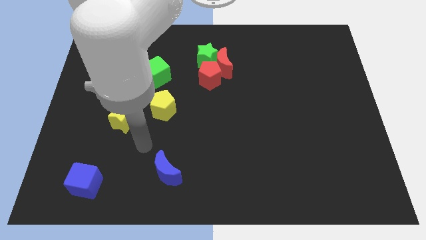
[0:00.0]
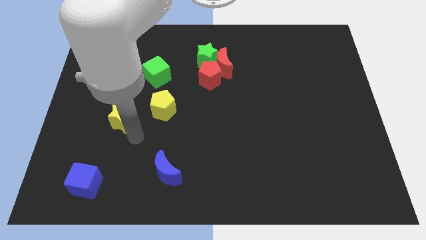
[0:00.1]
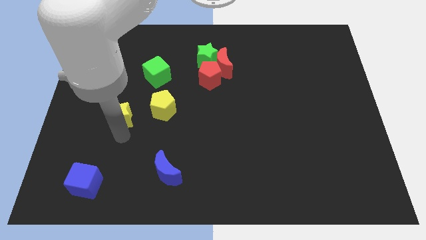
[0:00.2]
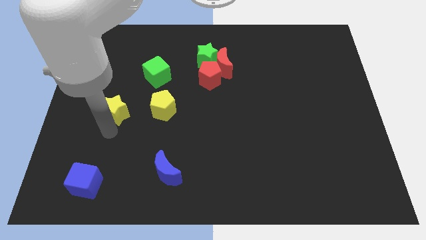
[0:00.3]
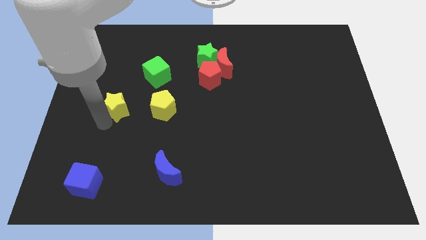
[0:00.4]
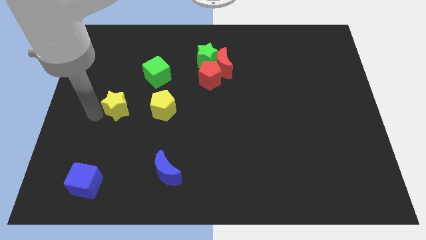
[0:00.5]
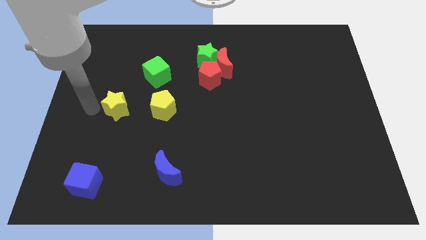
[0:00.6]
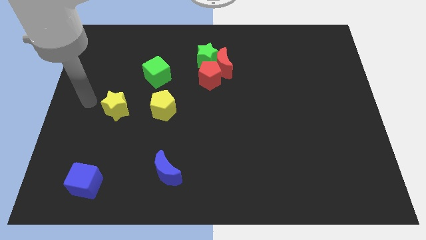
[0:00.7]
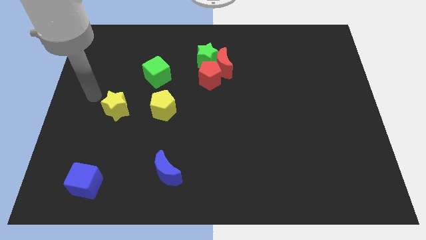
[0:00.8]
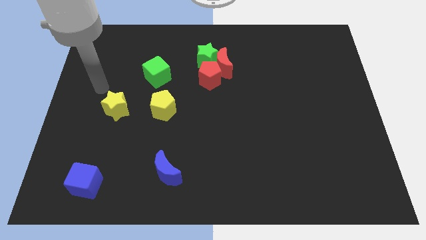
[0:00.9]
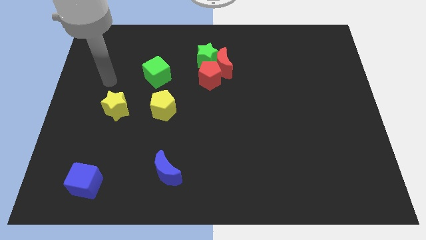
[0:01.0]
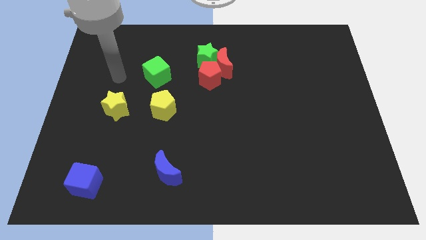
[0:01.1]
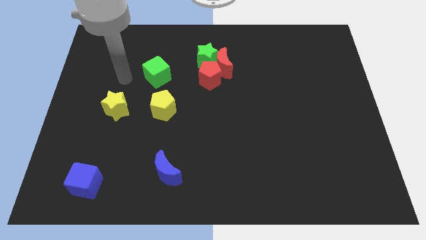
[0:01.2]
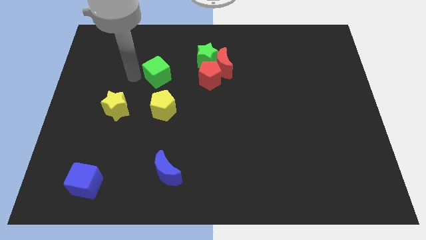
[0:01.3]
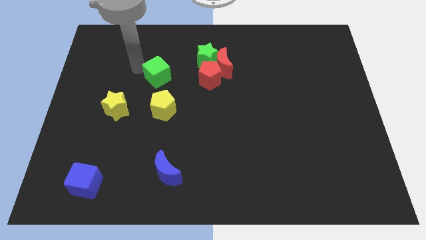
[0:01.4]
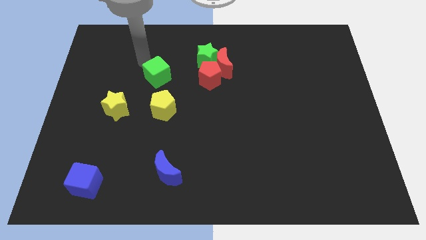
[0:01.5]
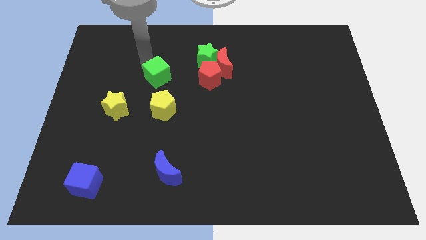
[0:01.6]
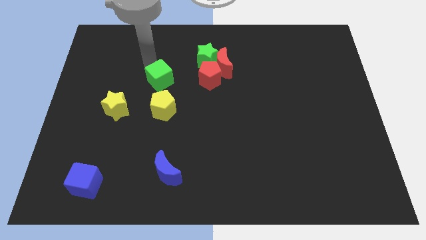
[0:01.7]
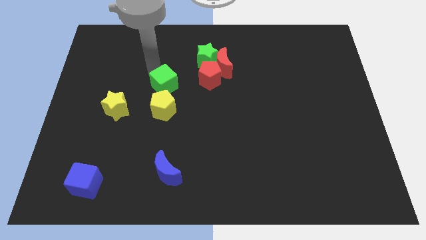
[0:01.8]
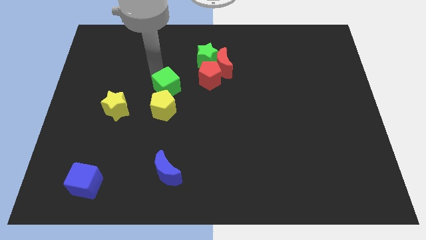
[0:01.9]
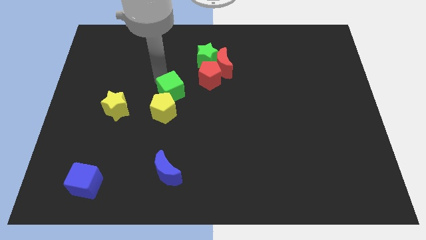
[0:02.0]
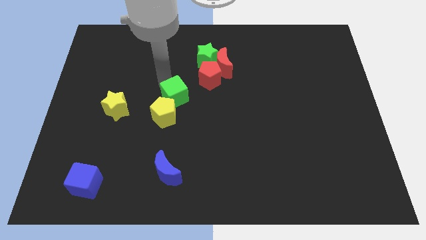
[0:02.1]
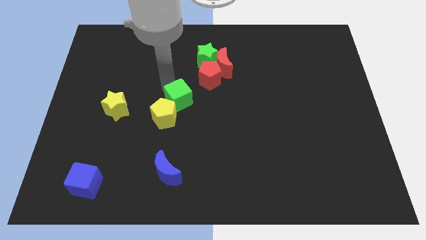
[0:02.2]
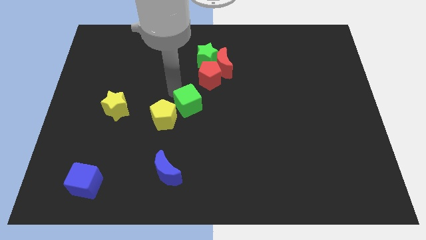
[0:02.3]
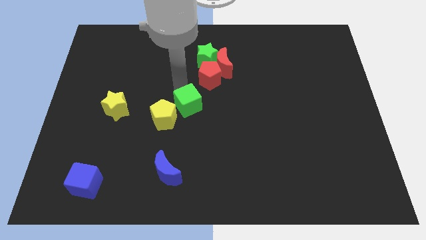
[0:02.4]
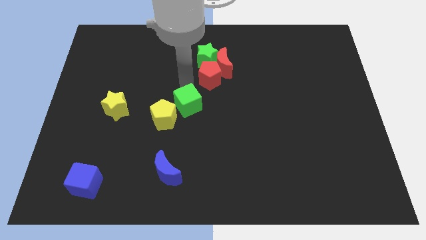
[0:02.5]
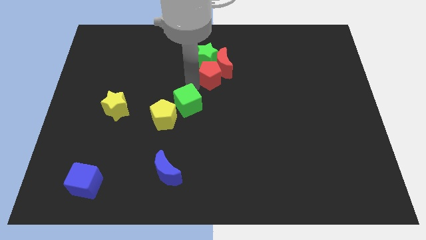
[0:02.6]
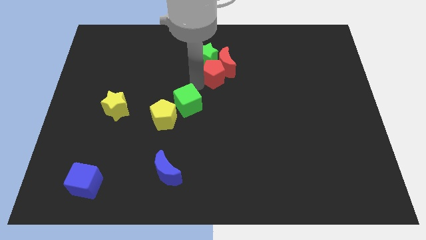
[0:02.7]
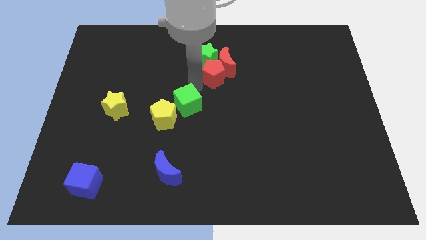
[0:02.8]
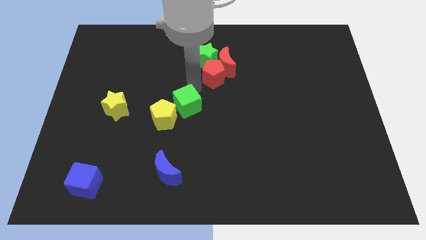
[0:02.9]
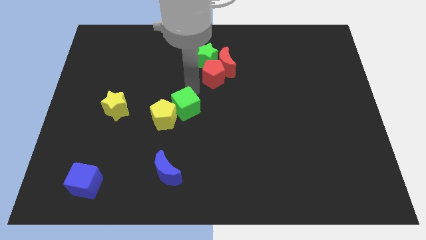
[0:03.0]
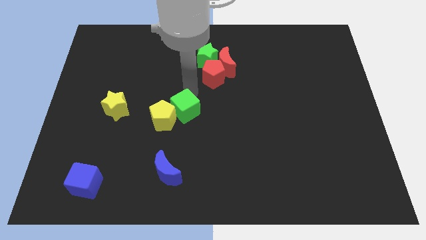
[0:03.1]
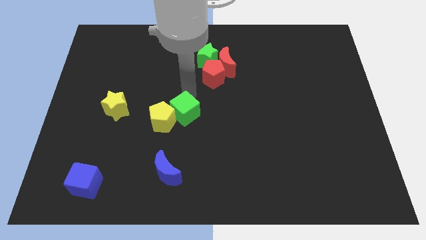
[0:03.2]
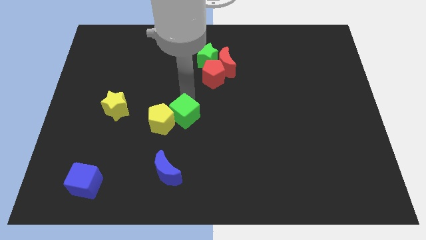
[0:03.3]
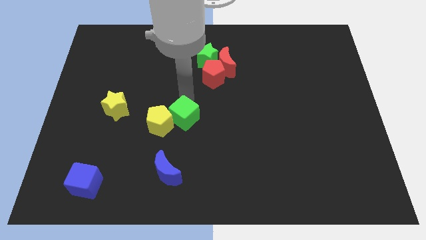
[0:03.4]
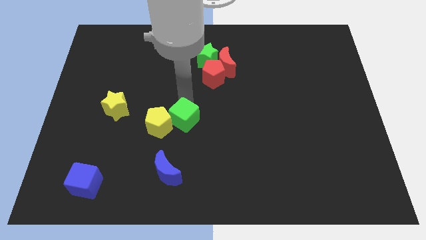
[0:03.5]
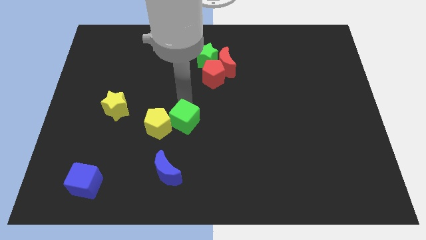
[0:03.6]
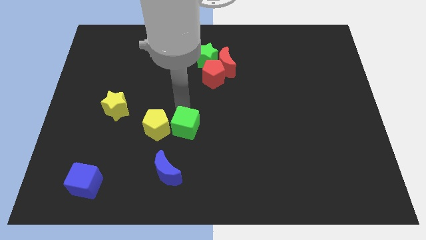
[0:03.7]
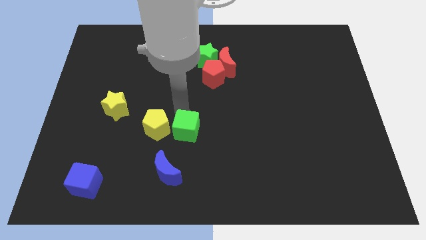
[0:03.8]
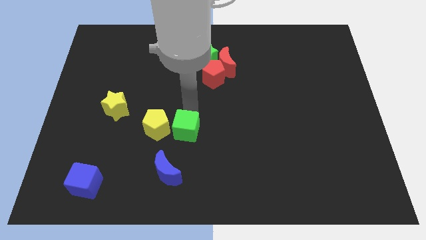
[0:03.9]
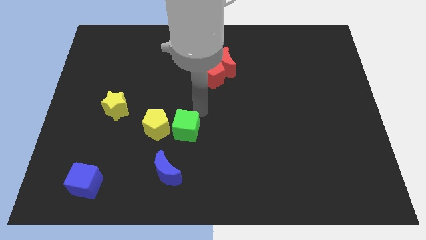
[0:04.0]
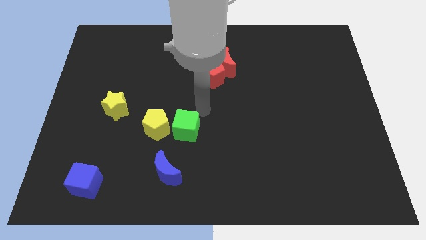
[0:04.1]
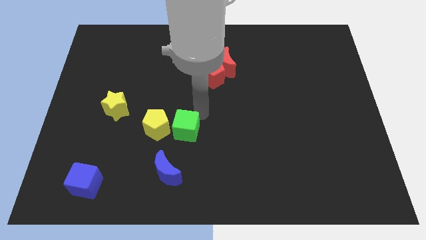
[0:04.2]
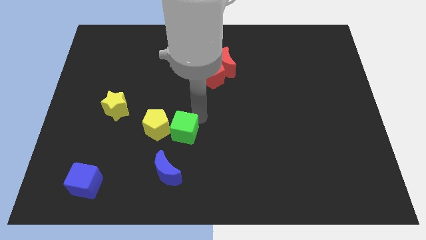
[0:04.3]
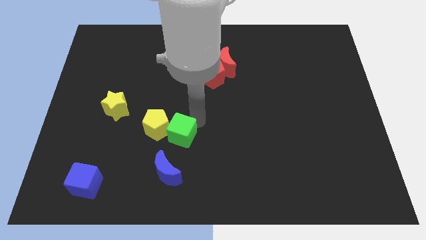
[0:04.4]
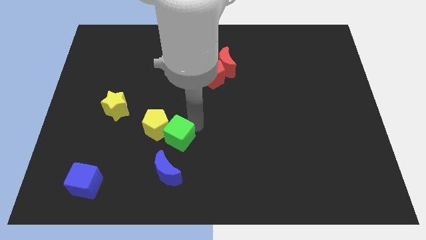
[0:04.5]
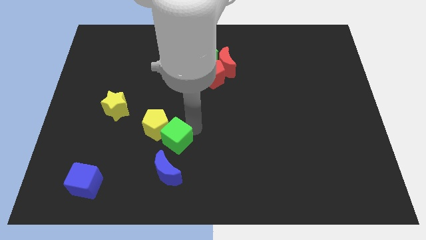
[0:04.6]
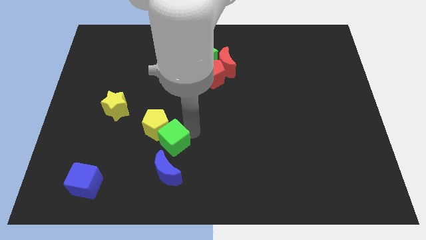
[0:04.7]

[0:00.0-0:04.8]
slide the green cube to the bottom side of the yellow pentagon

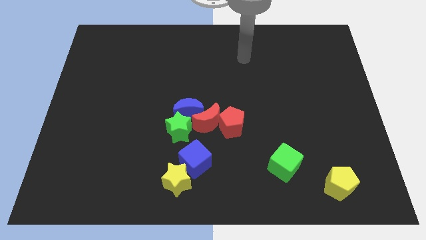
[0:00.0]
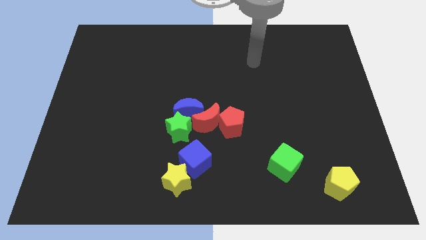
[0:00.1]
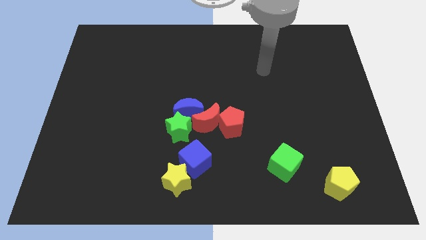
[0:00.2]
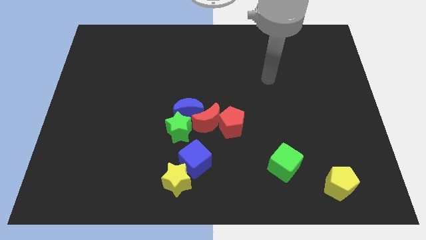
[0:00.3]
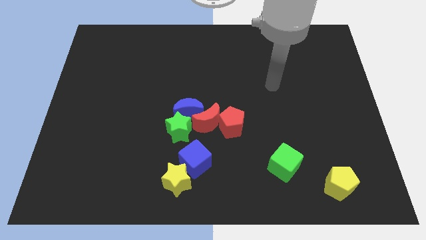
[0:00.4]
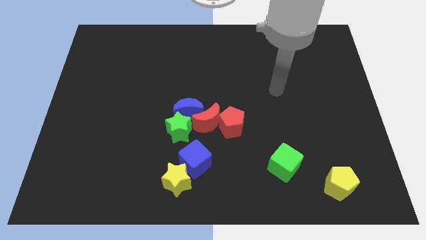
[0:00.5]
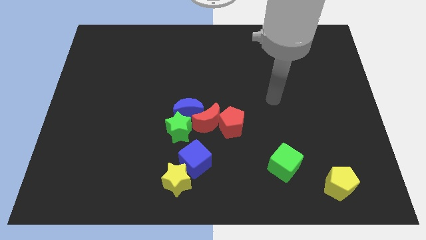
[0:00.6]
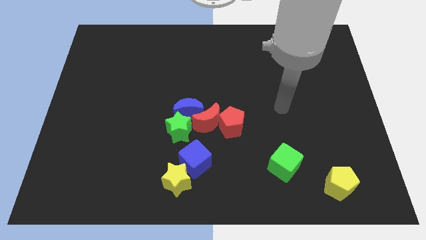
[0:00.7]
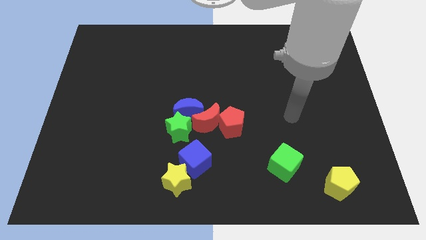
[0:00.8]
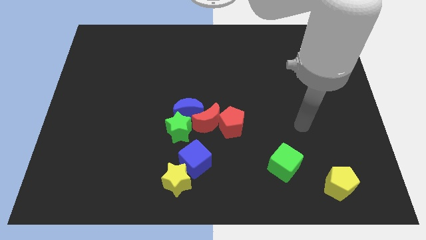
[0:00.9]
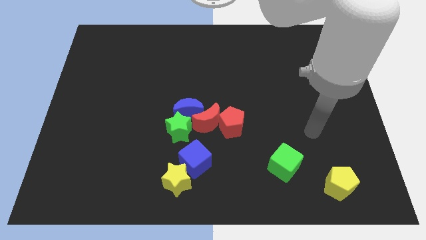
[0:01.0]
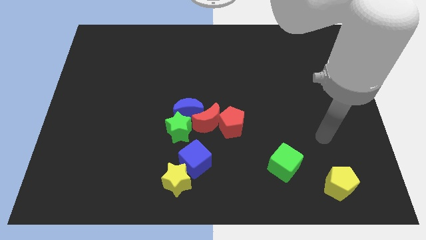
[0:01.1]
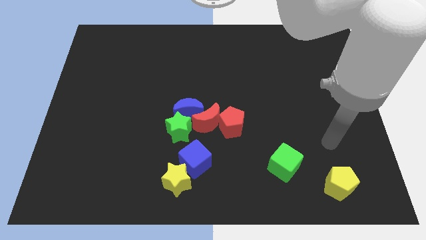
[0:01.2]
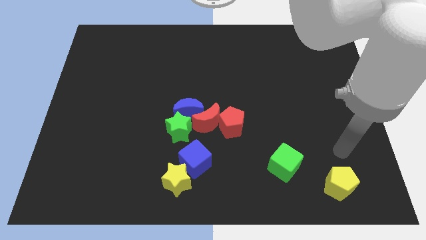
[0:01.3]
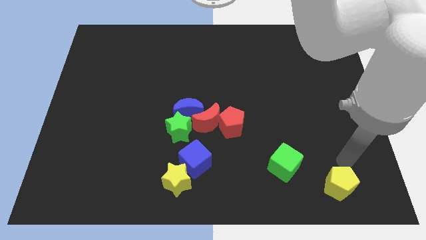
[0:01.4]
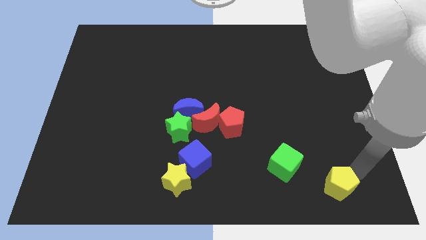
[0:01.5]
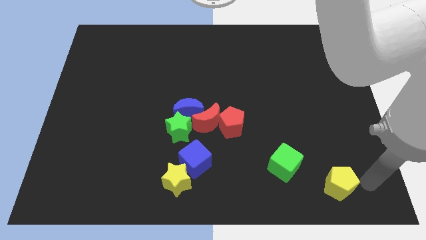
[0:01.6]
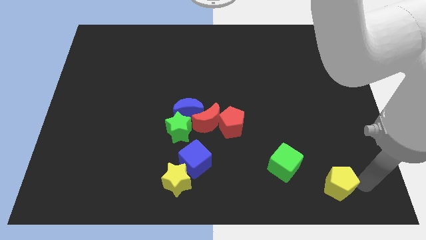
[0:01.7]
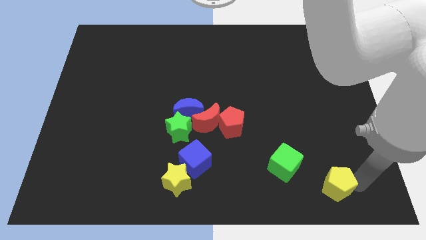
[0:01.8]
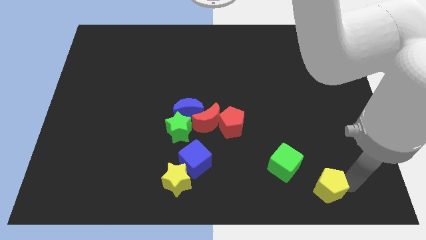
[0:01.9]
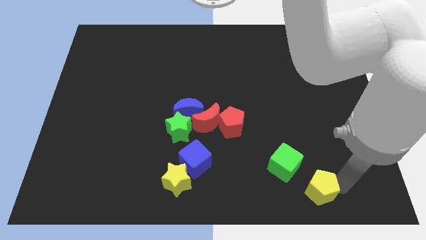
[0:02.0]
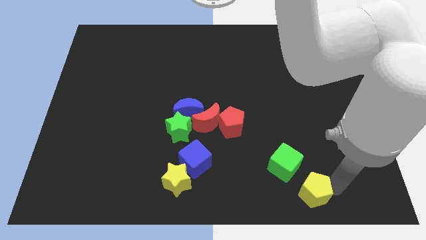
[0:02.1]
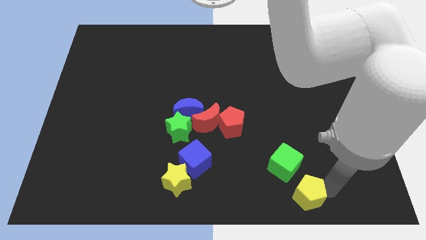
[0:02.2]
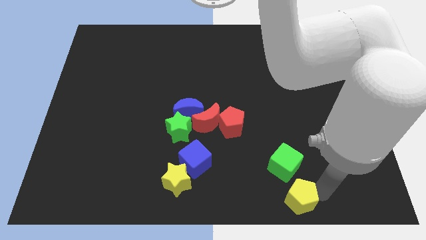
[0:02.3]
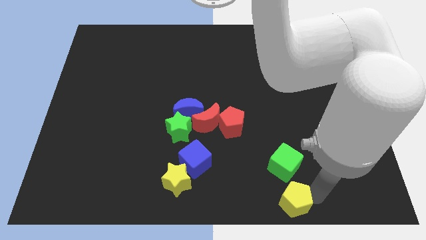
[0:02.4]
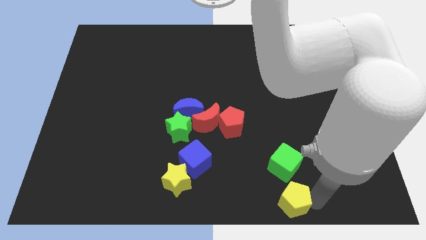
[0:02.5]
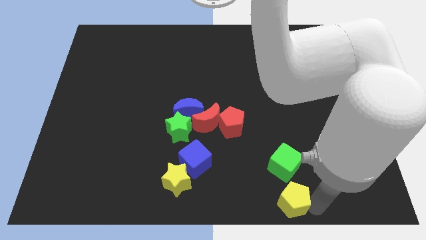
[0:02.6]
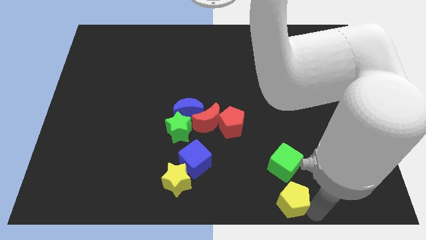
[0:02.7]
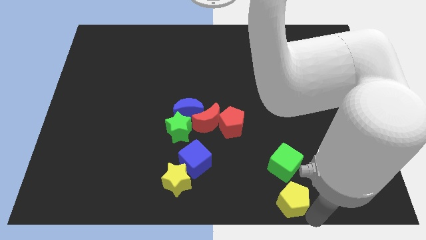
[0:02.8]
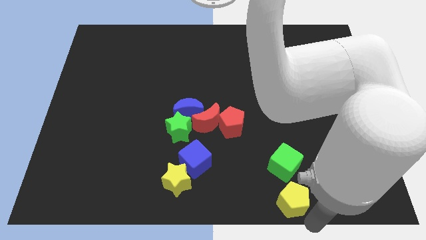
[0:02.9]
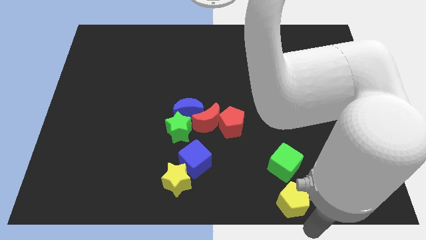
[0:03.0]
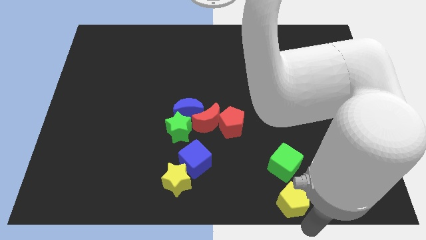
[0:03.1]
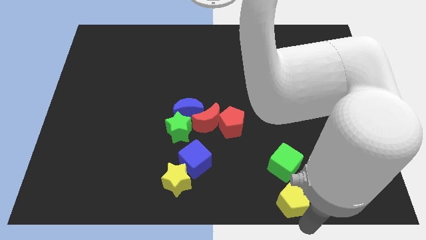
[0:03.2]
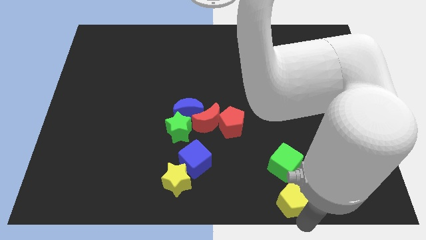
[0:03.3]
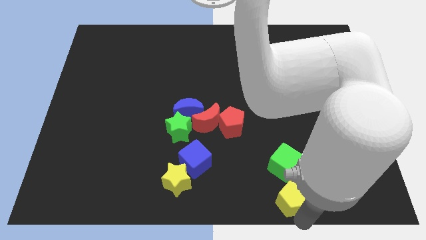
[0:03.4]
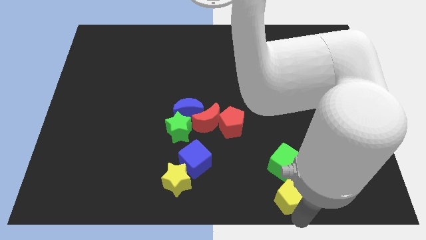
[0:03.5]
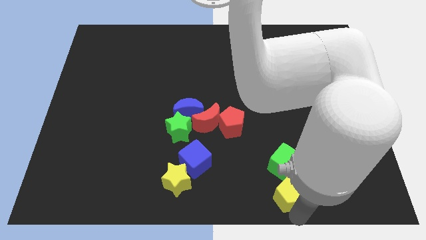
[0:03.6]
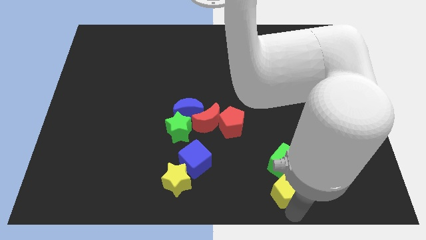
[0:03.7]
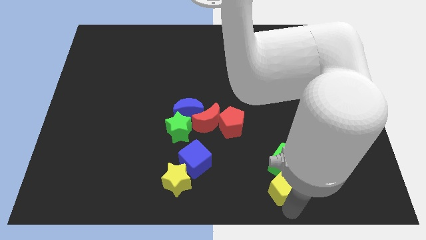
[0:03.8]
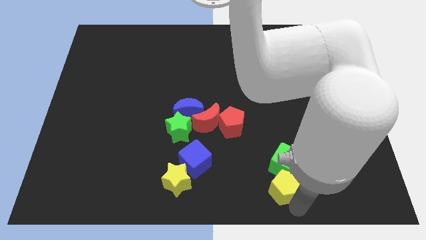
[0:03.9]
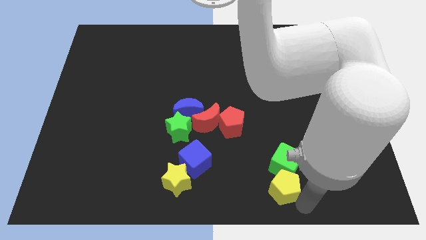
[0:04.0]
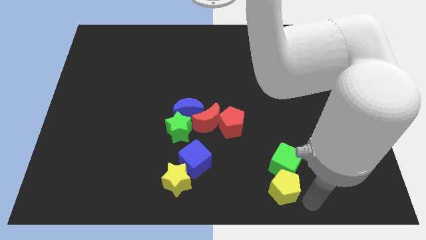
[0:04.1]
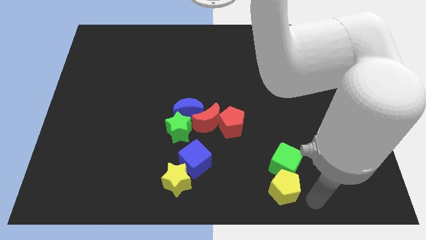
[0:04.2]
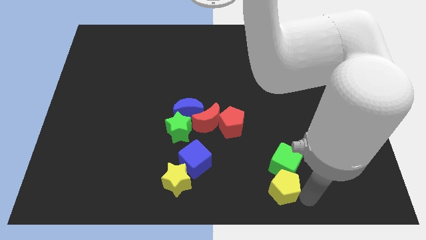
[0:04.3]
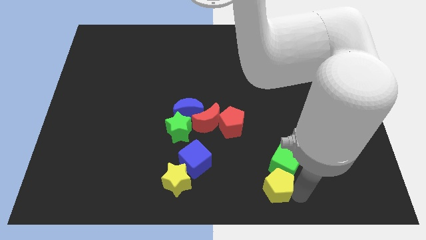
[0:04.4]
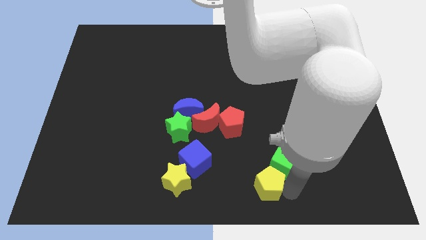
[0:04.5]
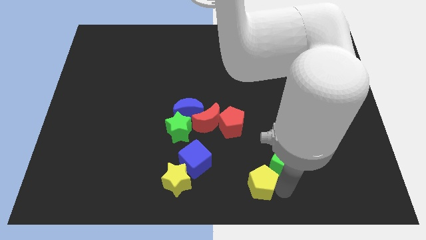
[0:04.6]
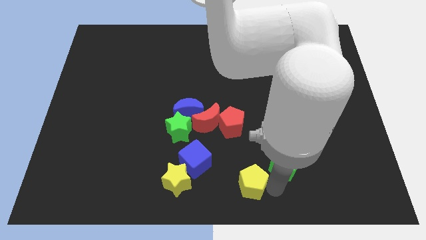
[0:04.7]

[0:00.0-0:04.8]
slide the yellow pentagon to the bottom side of the red pentagon
